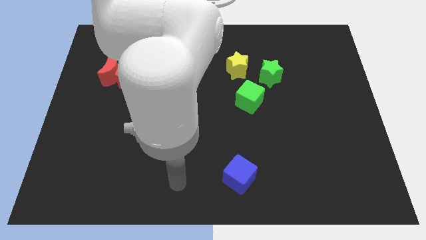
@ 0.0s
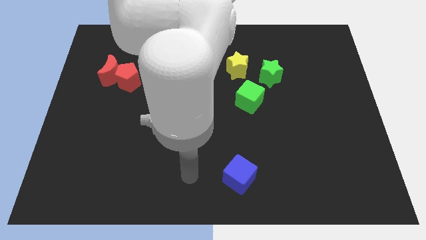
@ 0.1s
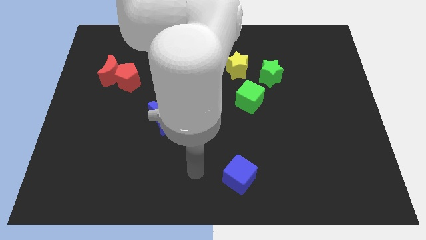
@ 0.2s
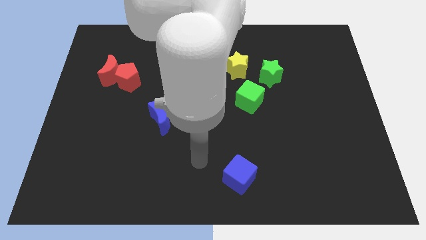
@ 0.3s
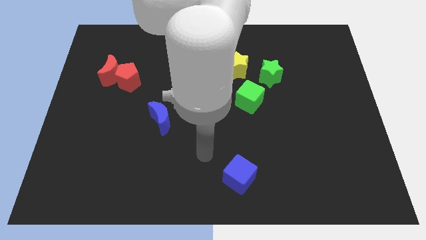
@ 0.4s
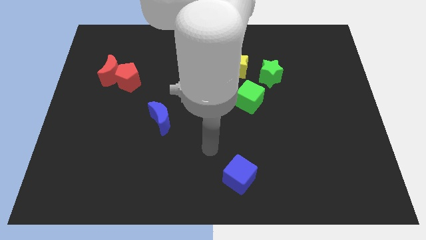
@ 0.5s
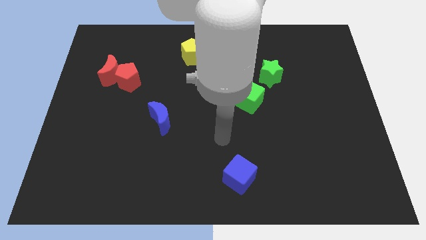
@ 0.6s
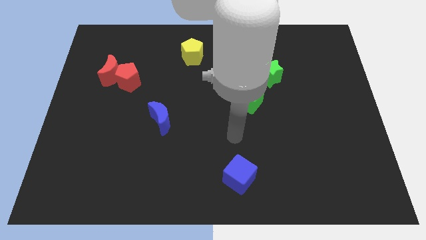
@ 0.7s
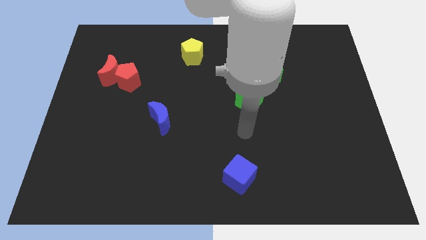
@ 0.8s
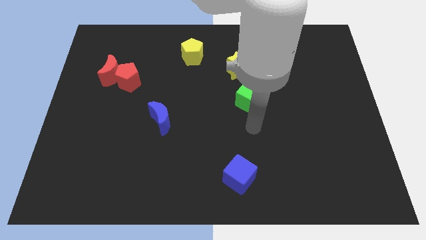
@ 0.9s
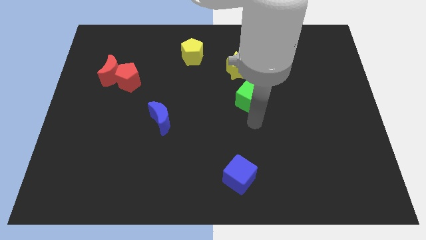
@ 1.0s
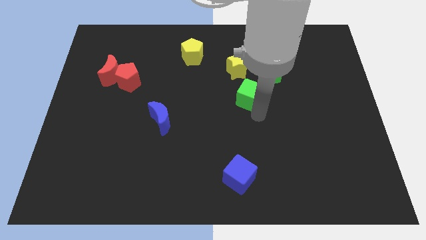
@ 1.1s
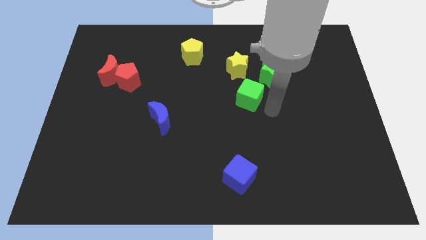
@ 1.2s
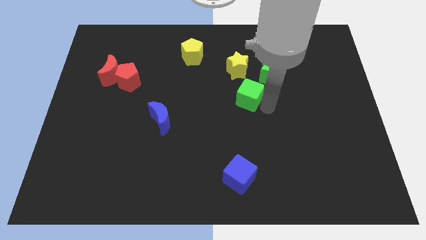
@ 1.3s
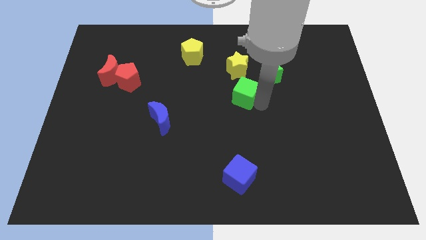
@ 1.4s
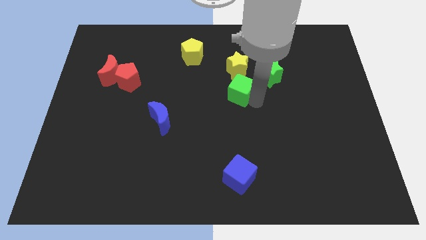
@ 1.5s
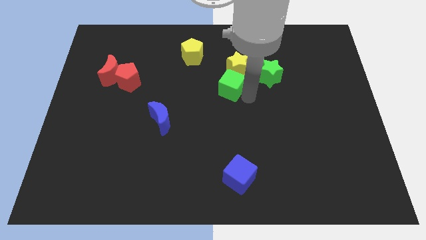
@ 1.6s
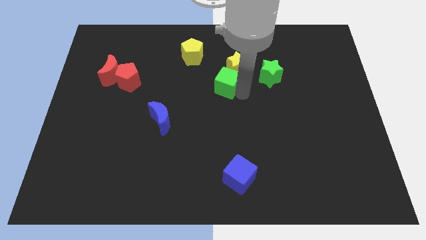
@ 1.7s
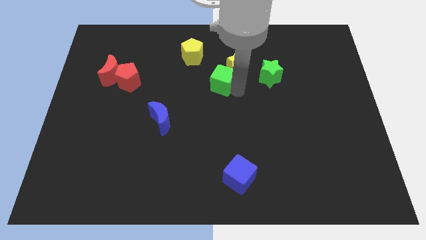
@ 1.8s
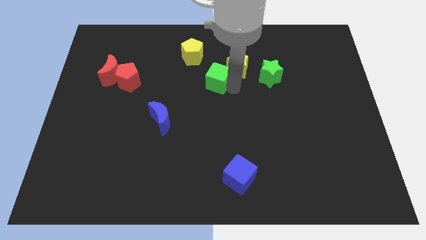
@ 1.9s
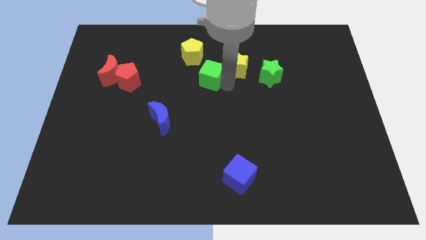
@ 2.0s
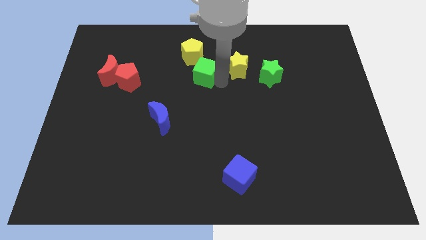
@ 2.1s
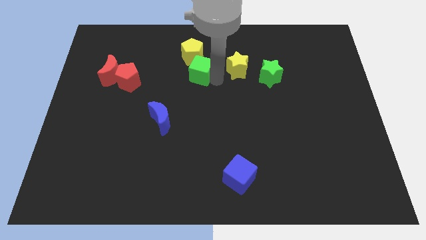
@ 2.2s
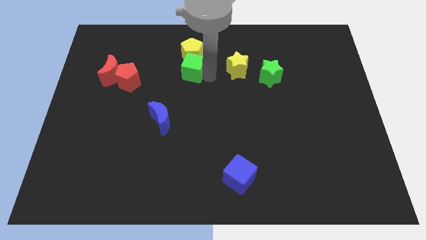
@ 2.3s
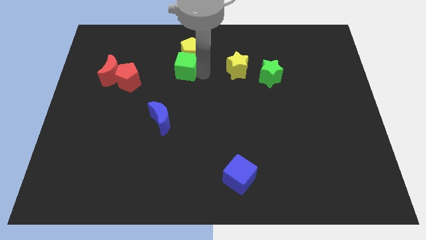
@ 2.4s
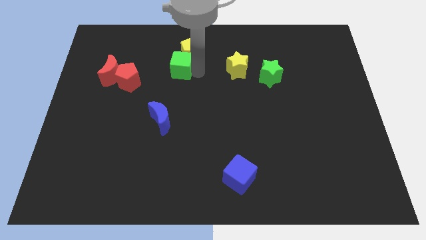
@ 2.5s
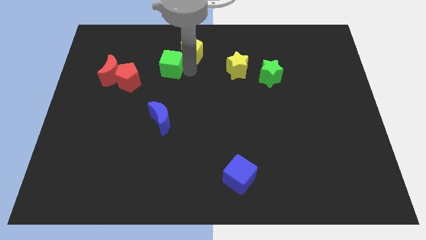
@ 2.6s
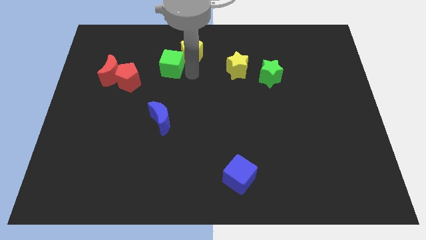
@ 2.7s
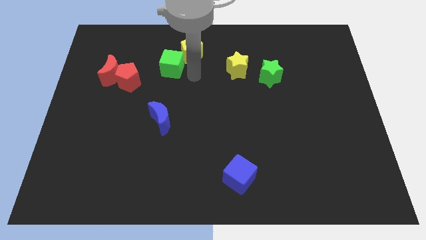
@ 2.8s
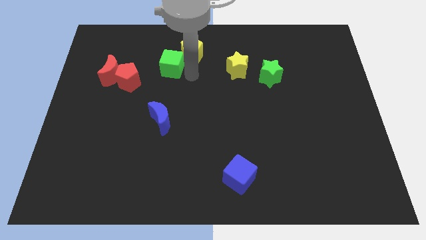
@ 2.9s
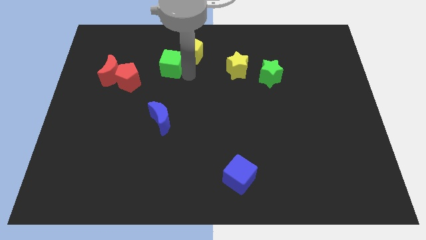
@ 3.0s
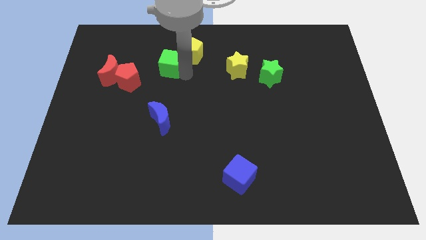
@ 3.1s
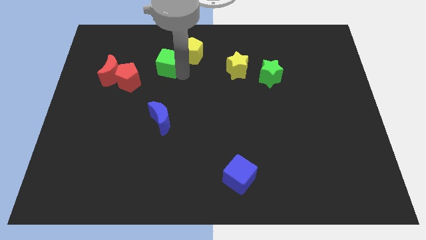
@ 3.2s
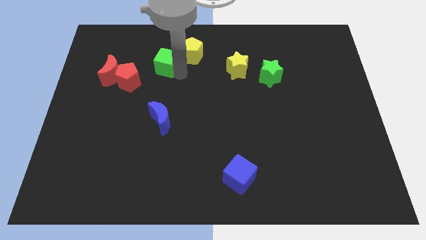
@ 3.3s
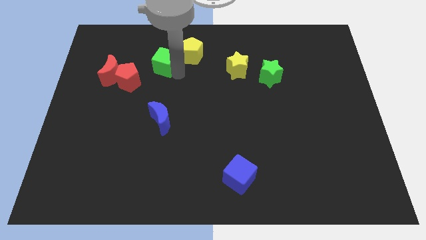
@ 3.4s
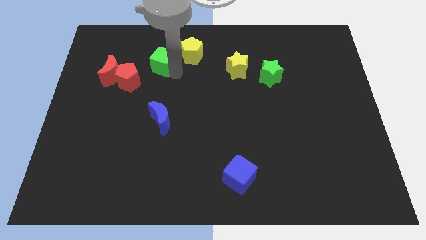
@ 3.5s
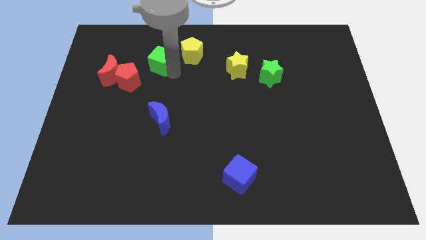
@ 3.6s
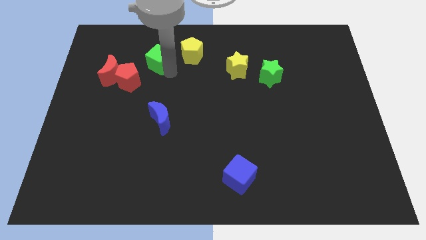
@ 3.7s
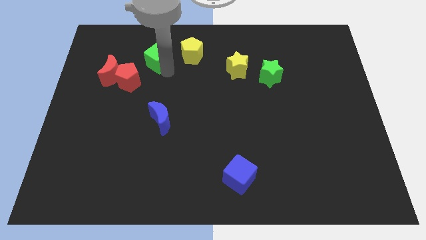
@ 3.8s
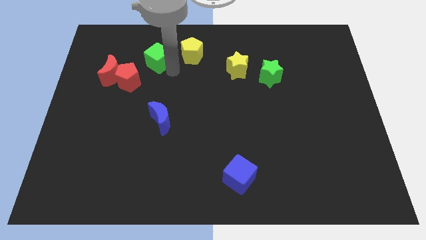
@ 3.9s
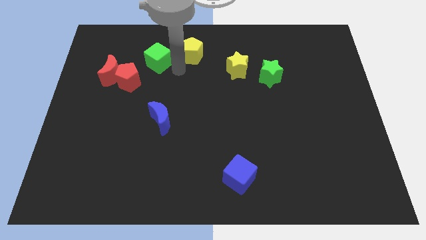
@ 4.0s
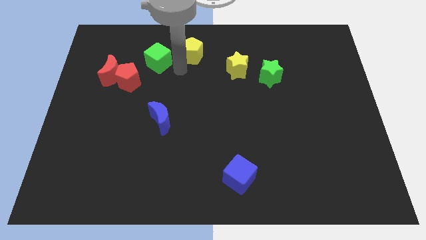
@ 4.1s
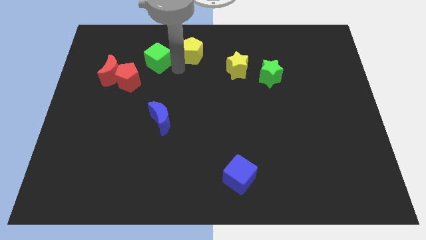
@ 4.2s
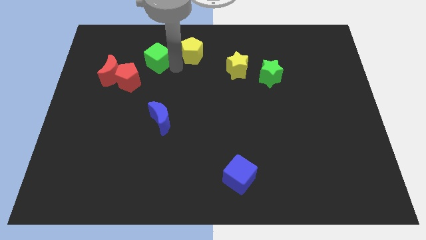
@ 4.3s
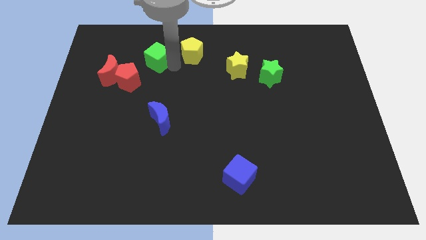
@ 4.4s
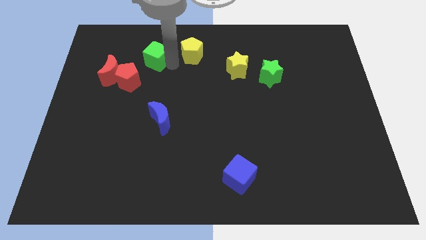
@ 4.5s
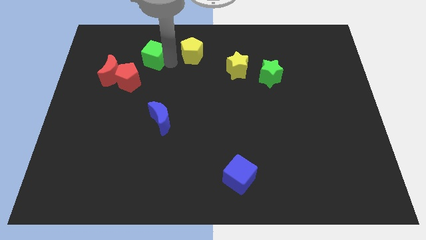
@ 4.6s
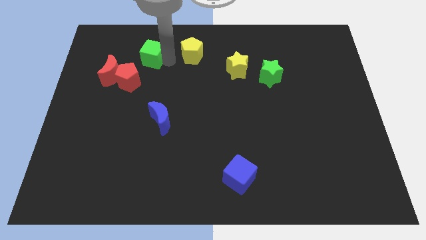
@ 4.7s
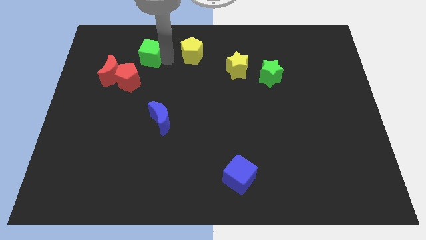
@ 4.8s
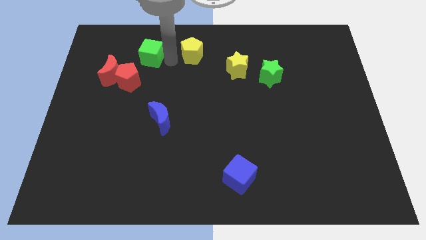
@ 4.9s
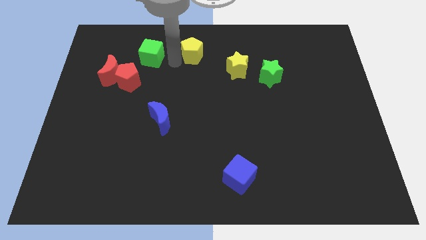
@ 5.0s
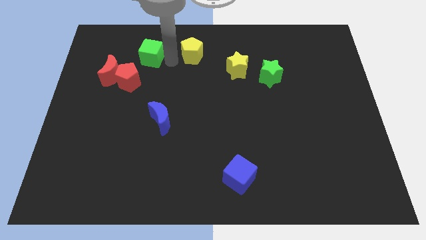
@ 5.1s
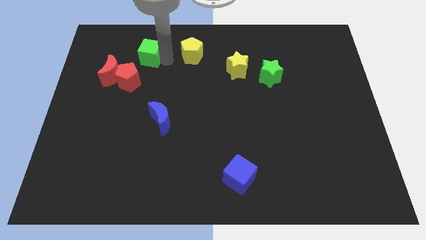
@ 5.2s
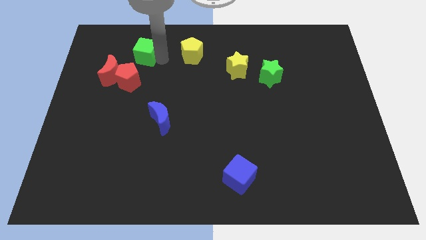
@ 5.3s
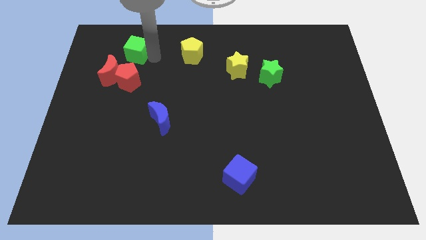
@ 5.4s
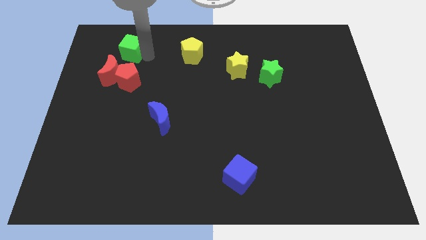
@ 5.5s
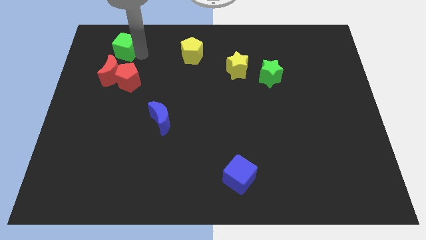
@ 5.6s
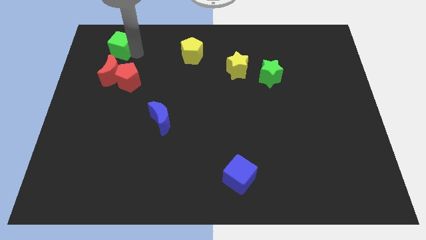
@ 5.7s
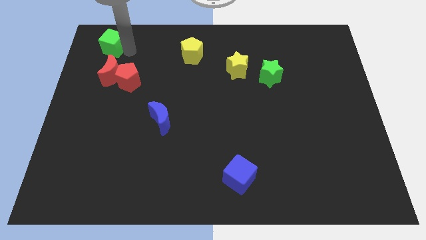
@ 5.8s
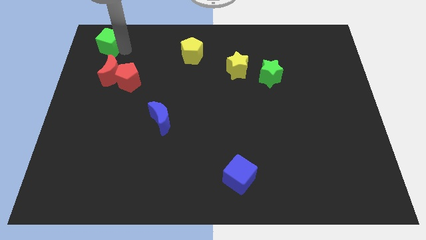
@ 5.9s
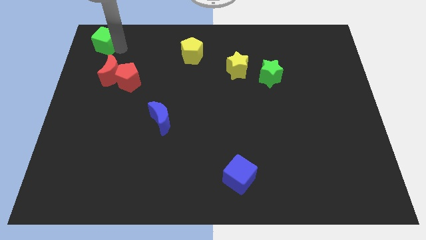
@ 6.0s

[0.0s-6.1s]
move the green cube to the upper left corner

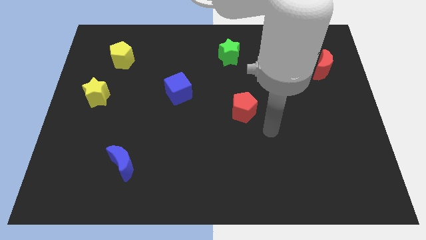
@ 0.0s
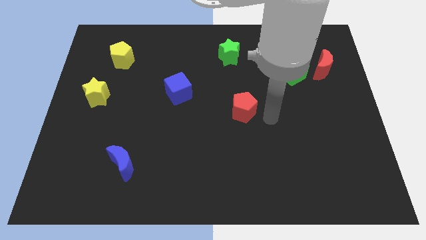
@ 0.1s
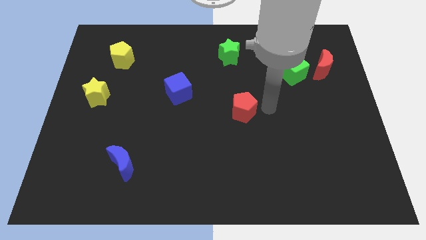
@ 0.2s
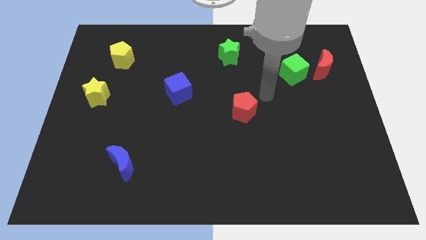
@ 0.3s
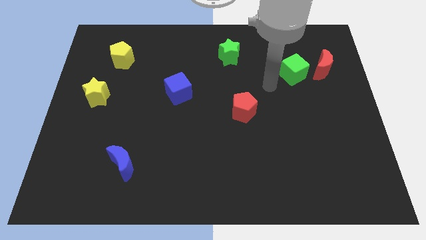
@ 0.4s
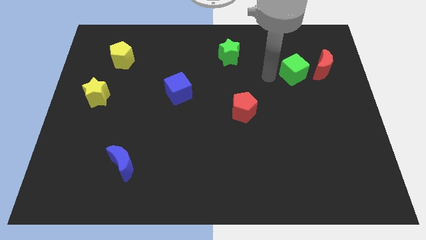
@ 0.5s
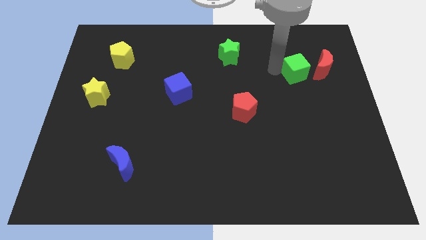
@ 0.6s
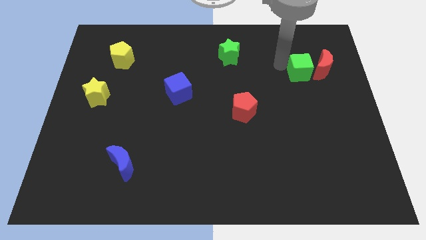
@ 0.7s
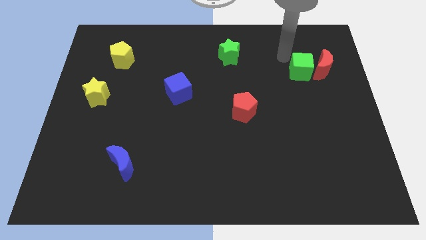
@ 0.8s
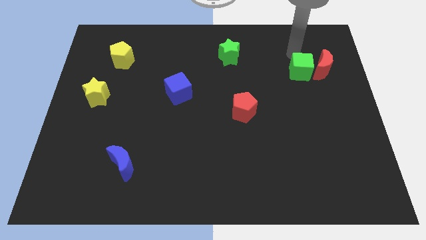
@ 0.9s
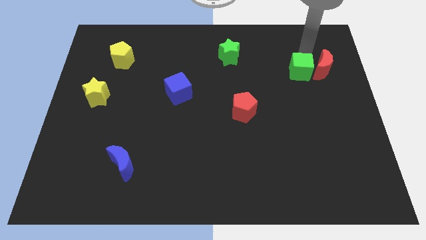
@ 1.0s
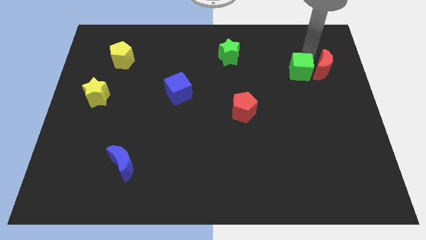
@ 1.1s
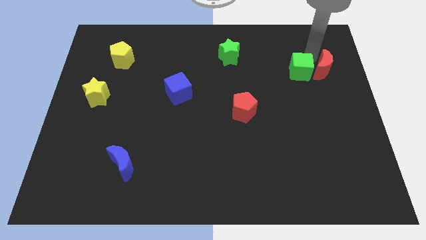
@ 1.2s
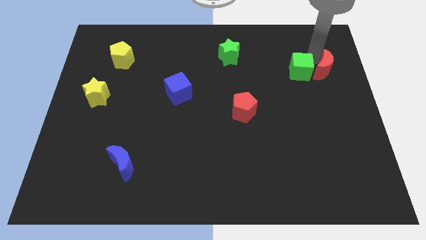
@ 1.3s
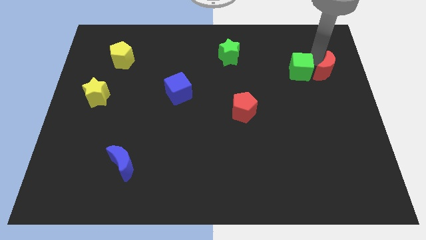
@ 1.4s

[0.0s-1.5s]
push the red moon to the right side of the board
